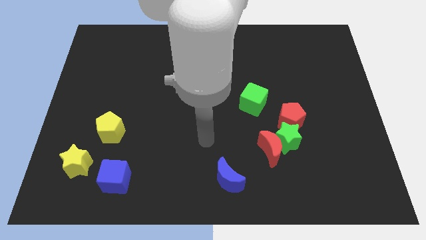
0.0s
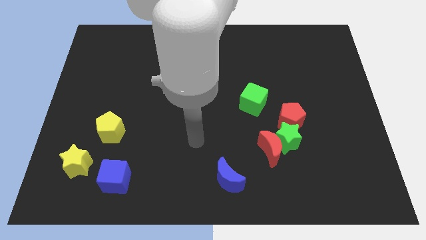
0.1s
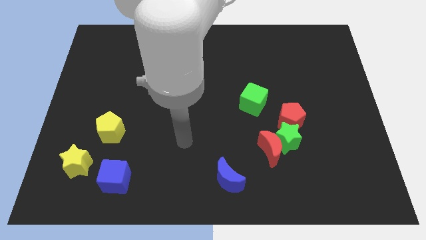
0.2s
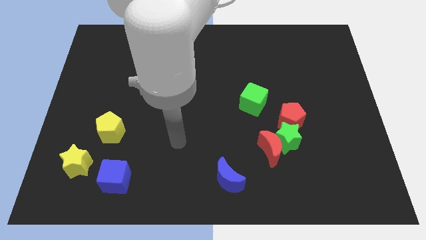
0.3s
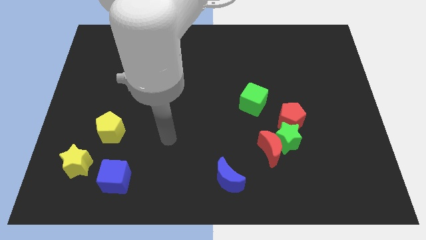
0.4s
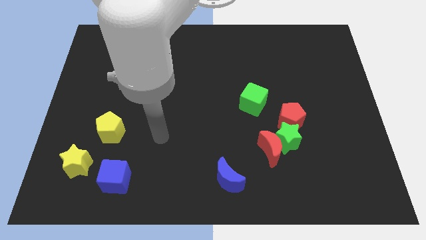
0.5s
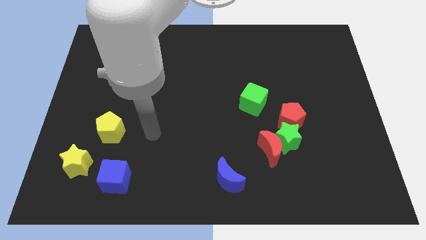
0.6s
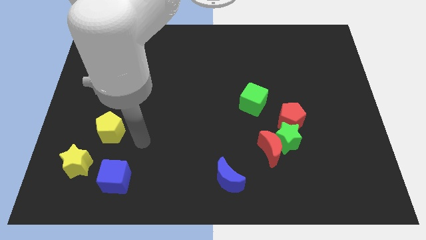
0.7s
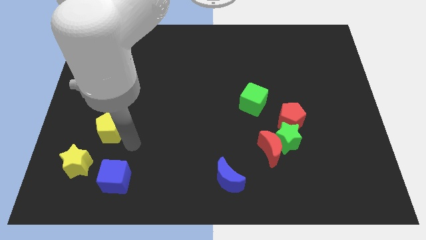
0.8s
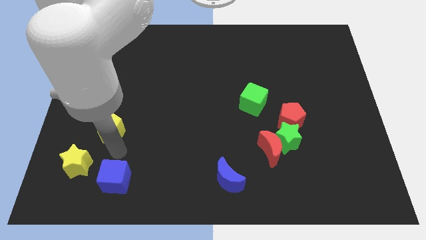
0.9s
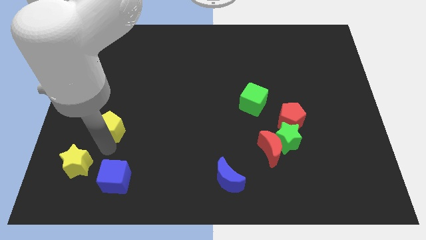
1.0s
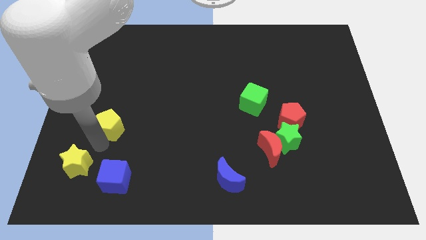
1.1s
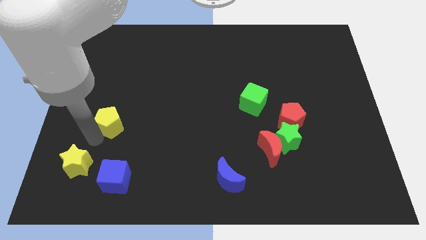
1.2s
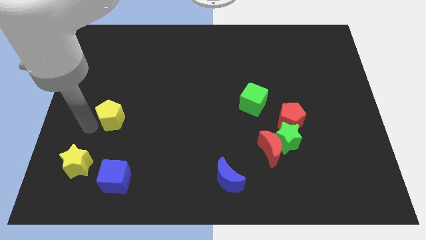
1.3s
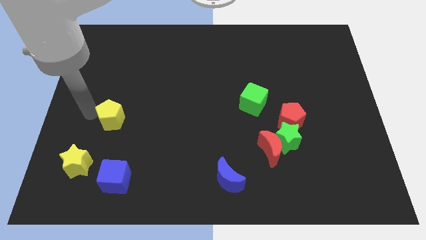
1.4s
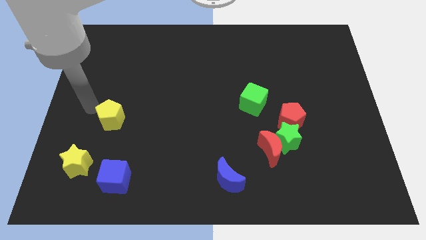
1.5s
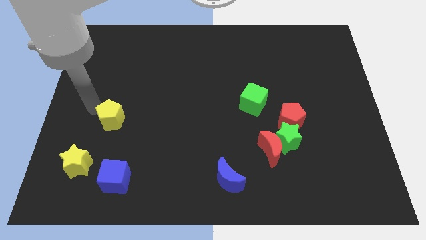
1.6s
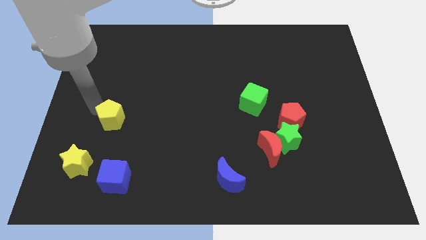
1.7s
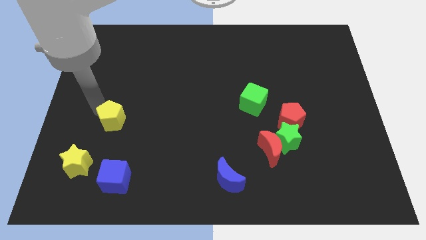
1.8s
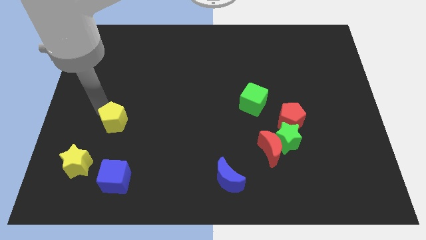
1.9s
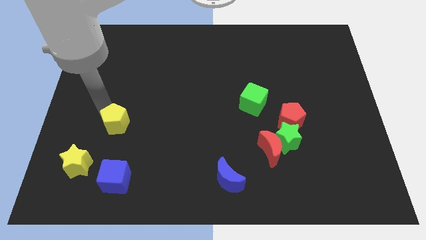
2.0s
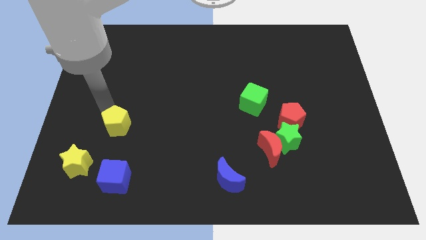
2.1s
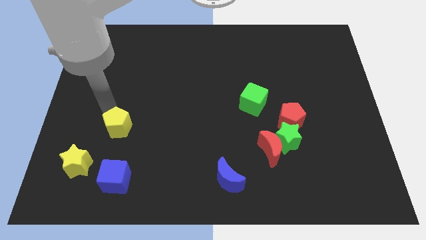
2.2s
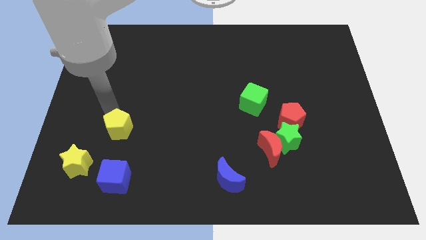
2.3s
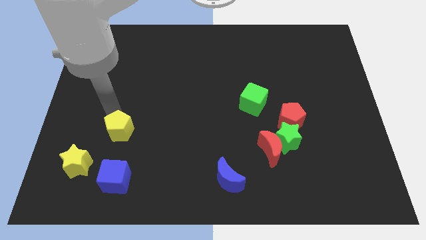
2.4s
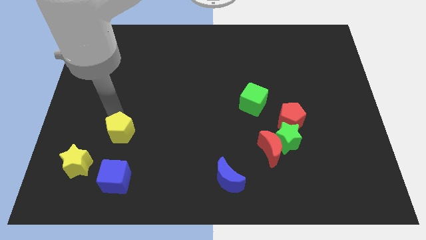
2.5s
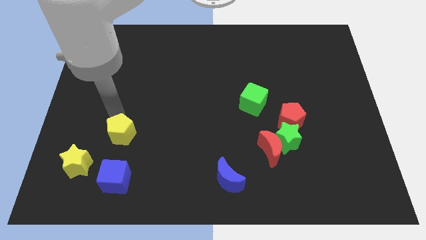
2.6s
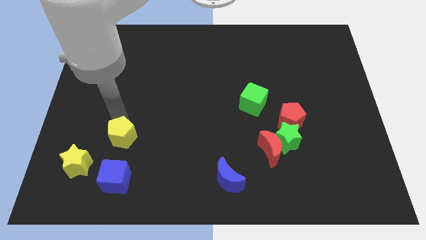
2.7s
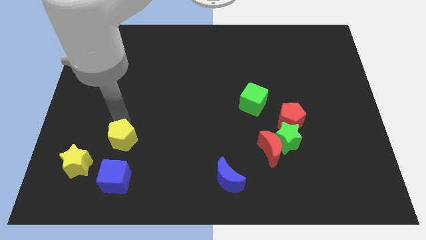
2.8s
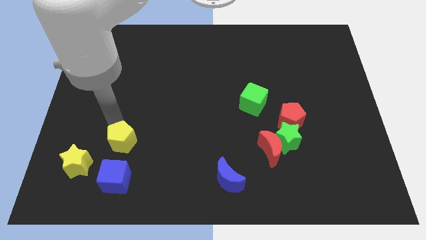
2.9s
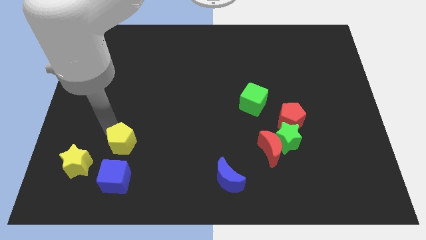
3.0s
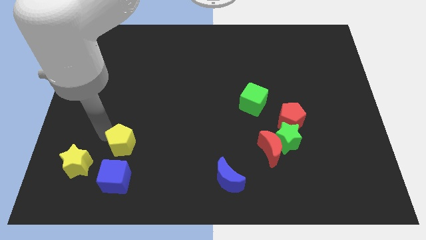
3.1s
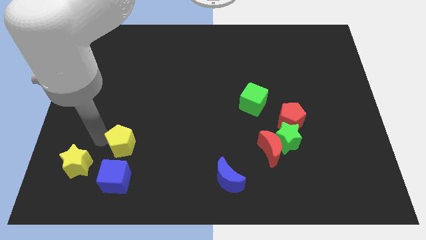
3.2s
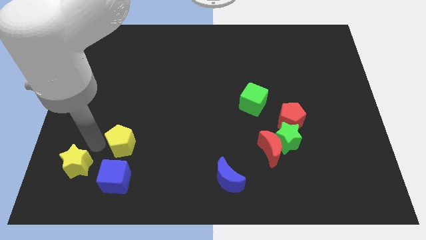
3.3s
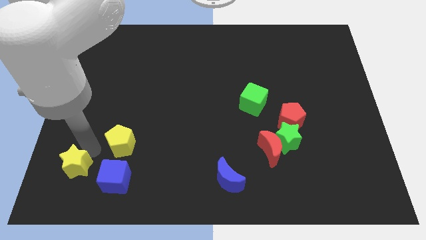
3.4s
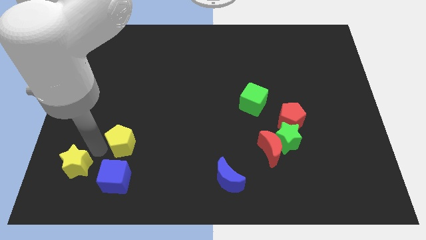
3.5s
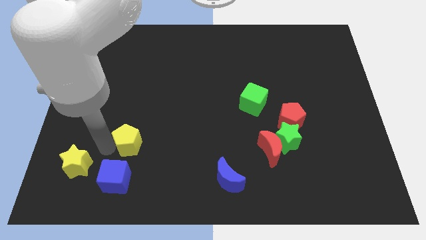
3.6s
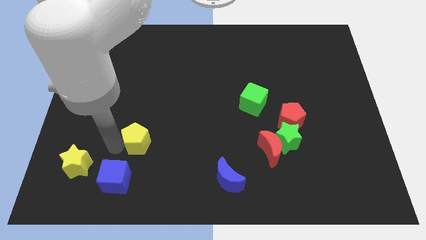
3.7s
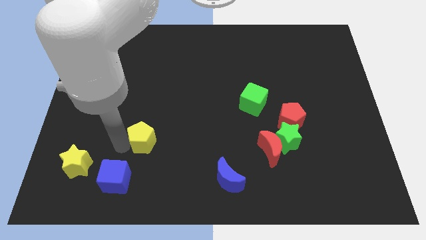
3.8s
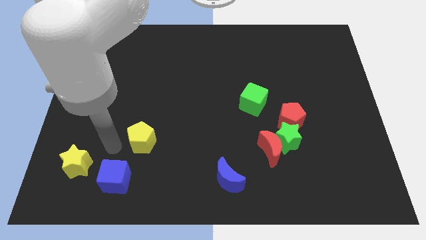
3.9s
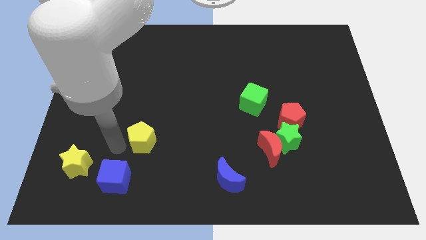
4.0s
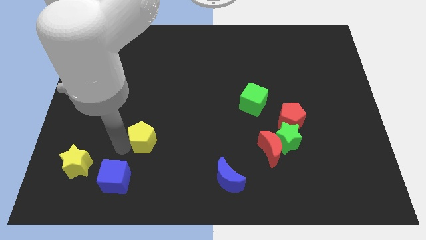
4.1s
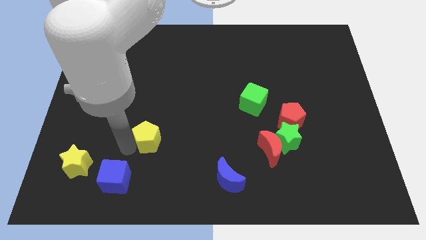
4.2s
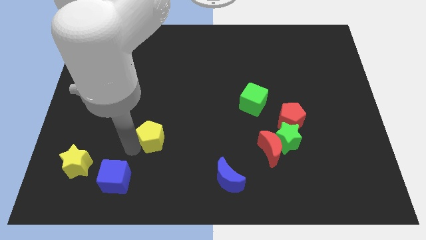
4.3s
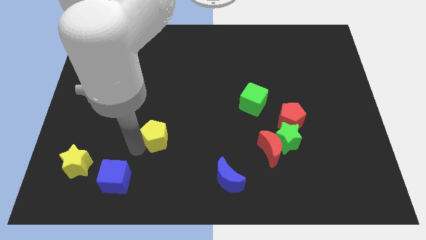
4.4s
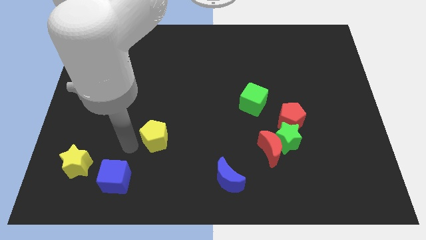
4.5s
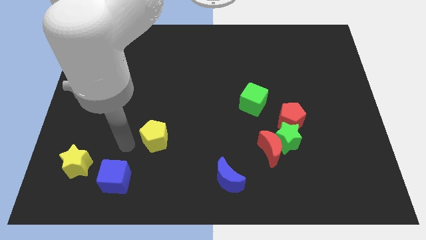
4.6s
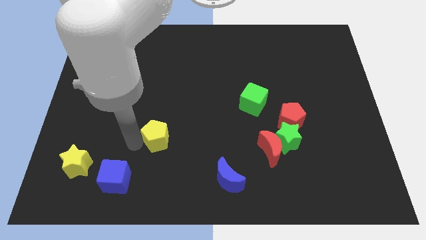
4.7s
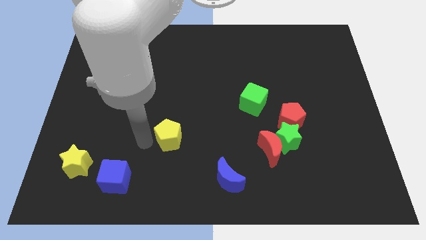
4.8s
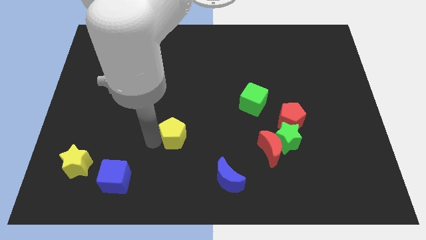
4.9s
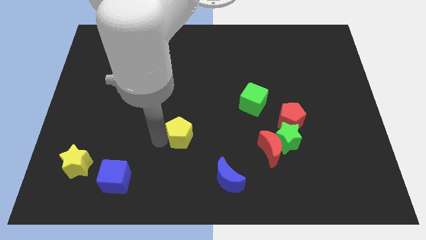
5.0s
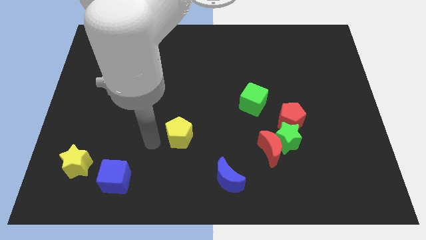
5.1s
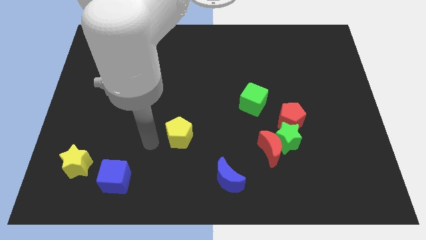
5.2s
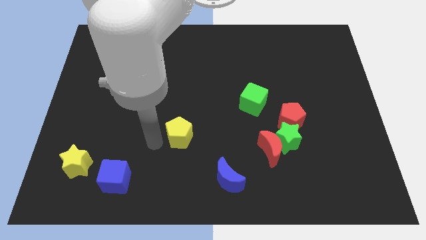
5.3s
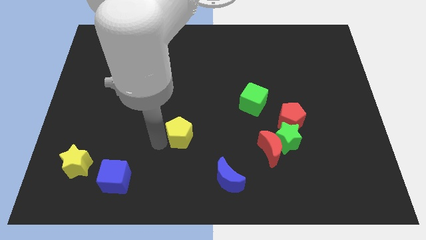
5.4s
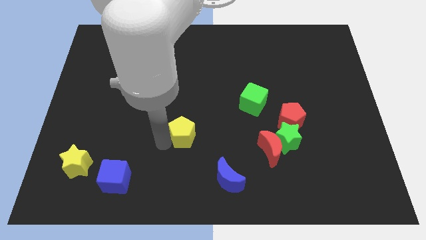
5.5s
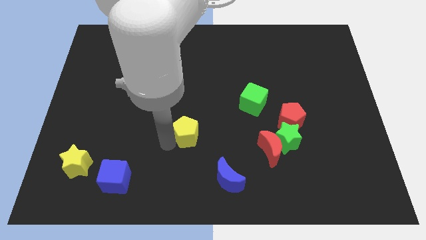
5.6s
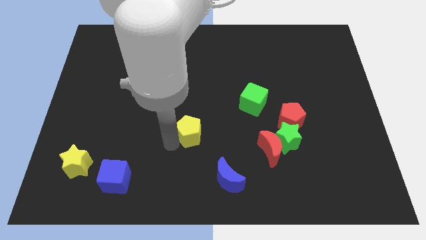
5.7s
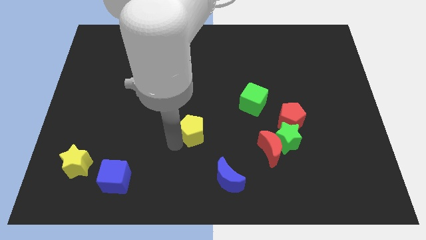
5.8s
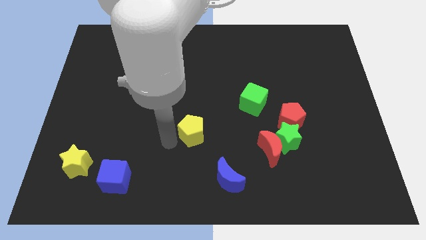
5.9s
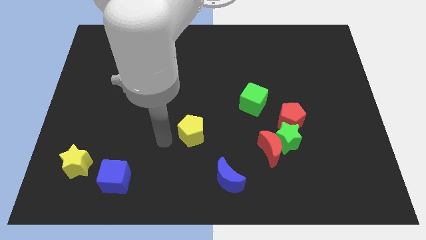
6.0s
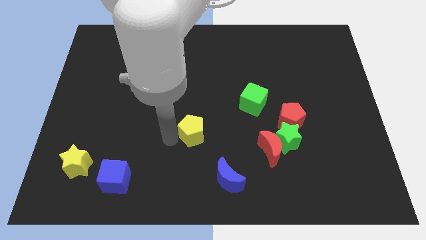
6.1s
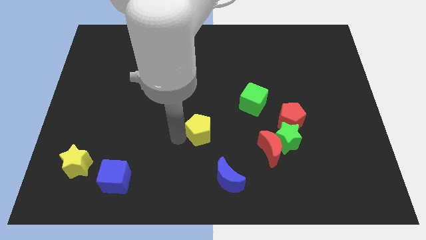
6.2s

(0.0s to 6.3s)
move the yellow pentagon to the right

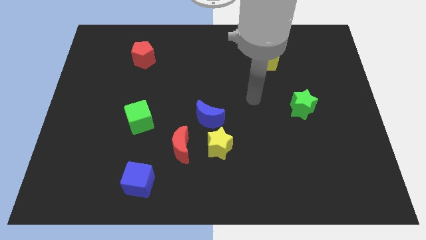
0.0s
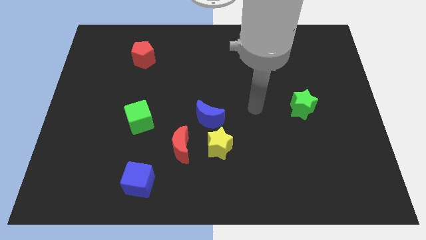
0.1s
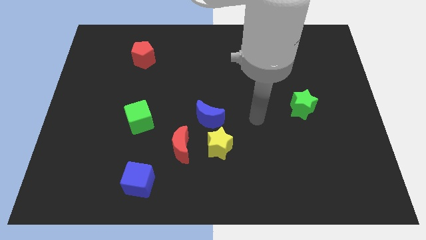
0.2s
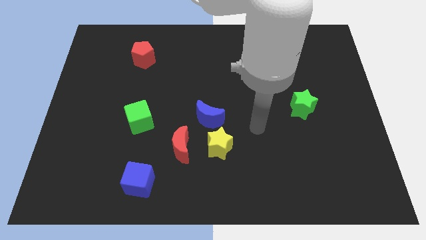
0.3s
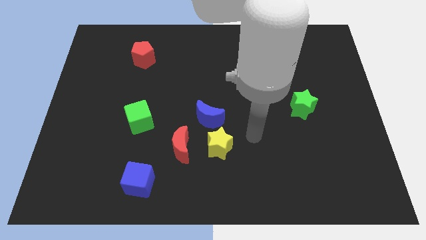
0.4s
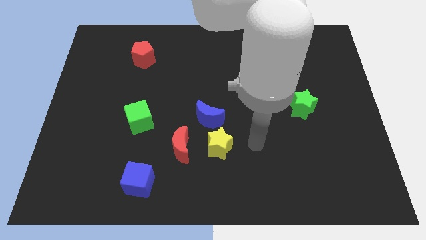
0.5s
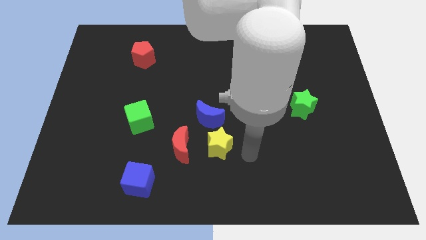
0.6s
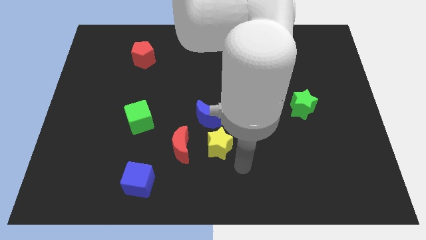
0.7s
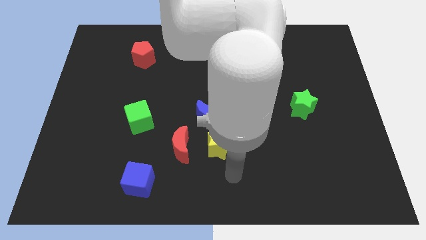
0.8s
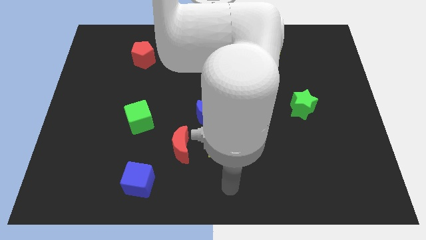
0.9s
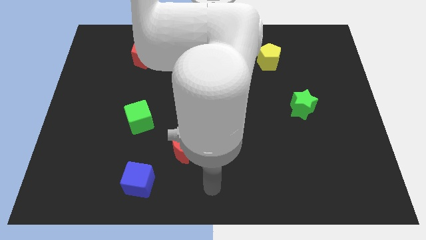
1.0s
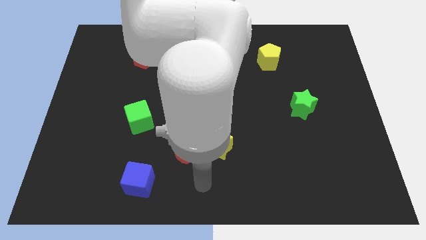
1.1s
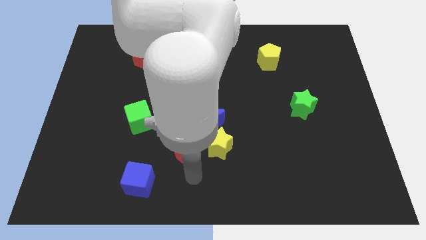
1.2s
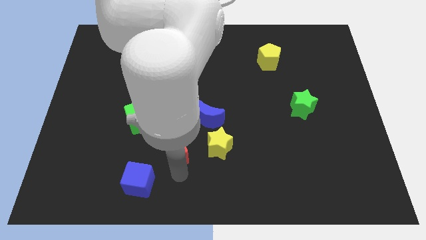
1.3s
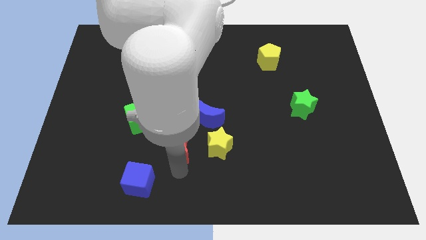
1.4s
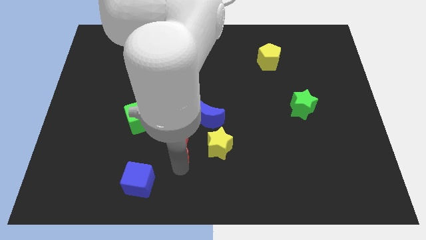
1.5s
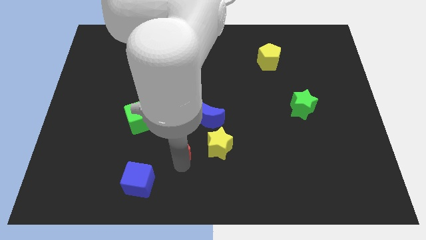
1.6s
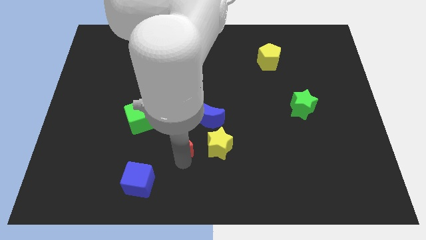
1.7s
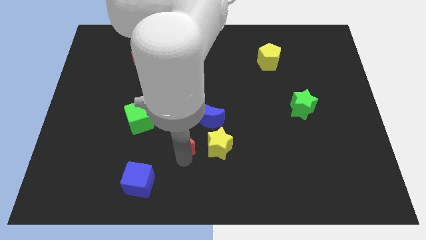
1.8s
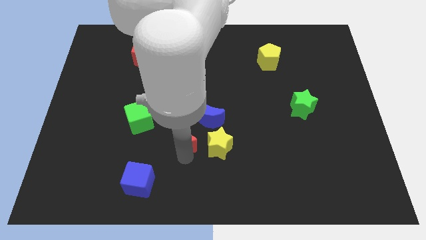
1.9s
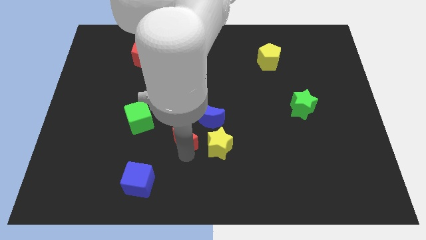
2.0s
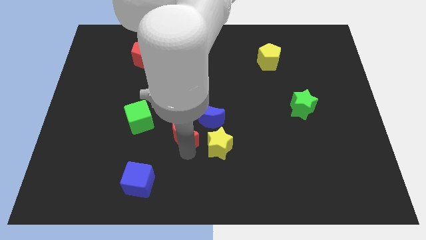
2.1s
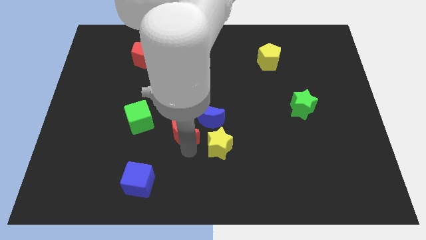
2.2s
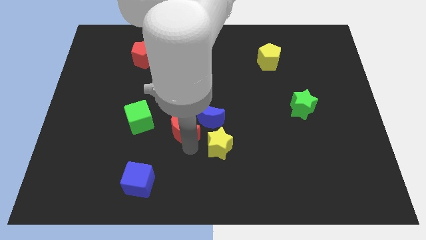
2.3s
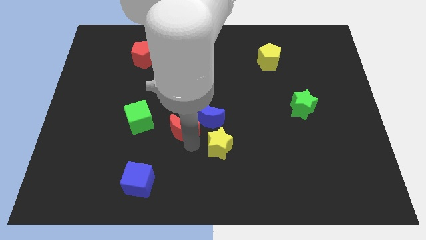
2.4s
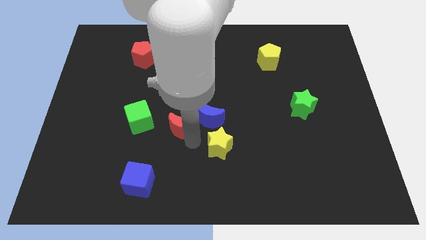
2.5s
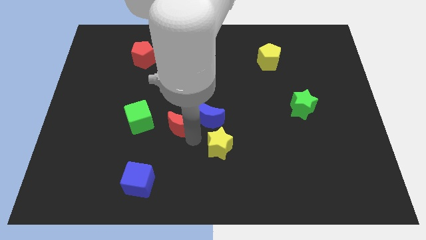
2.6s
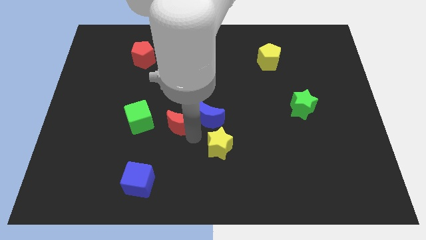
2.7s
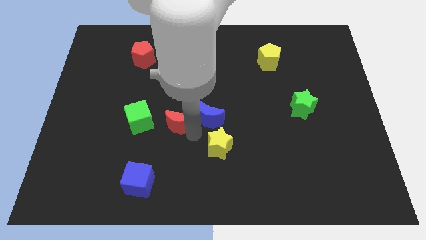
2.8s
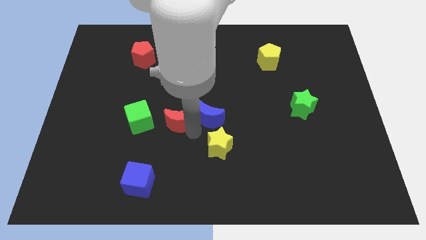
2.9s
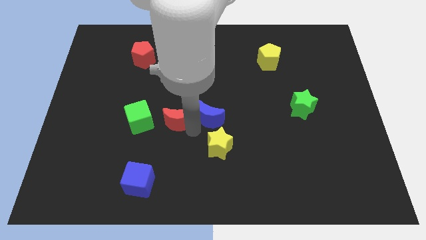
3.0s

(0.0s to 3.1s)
push the red moon up somewhat
